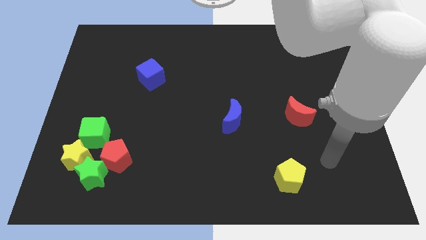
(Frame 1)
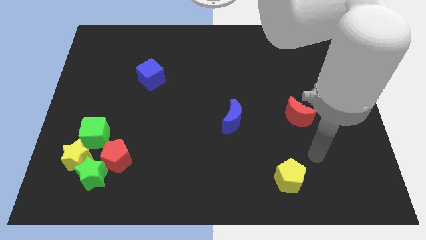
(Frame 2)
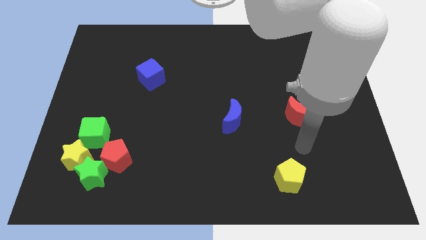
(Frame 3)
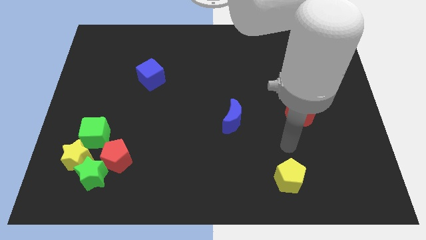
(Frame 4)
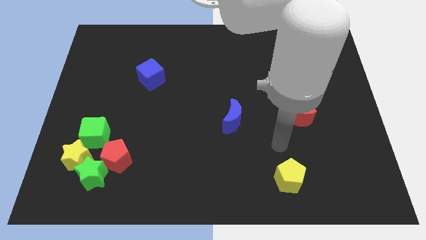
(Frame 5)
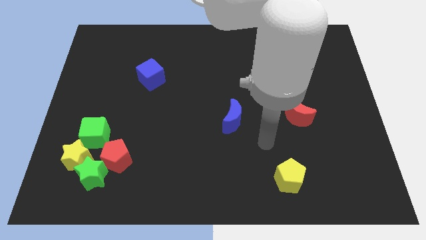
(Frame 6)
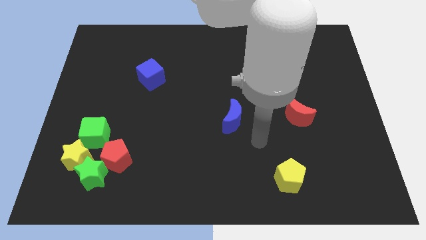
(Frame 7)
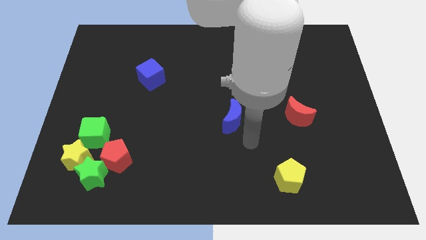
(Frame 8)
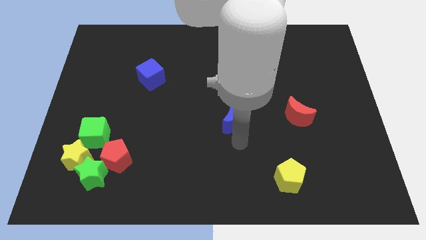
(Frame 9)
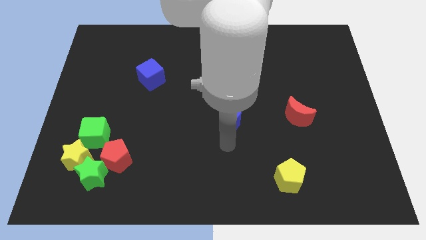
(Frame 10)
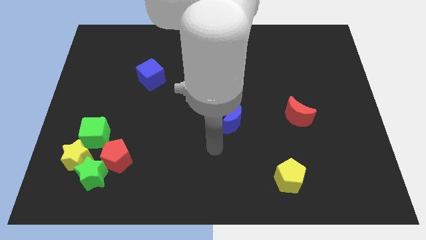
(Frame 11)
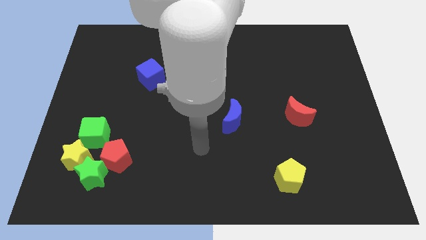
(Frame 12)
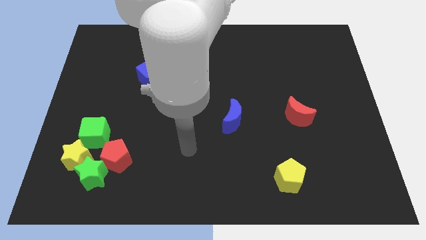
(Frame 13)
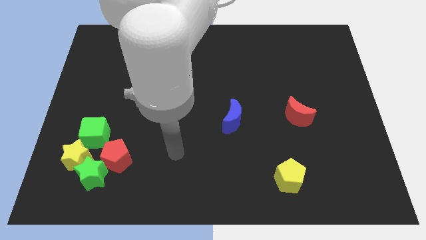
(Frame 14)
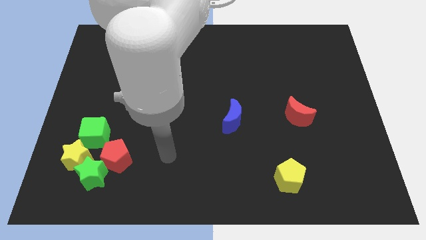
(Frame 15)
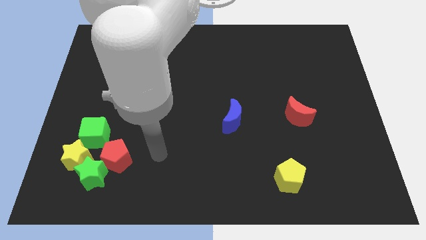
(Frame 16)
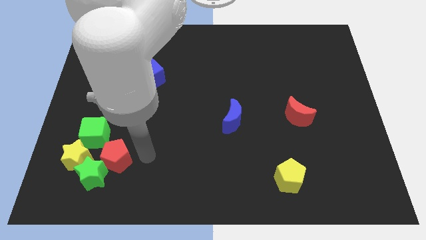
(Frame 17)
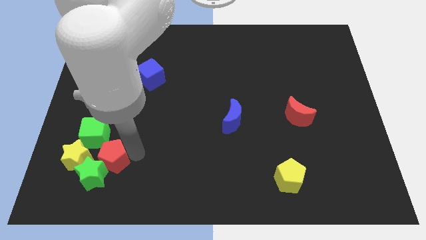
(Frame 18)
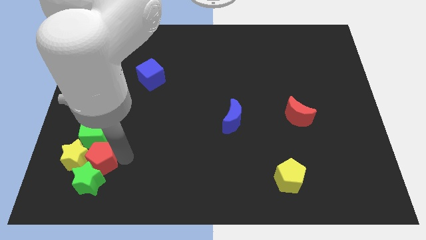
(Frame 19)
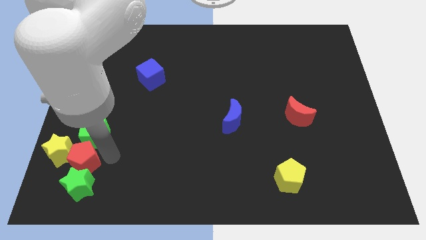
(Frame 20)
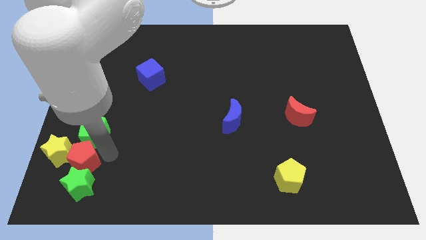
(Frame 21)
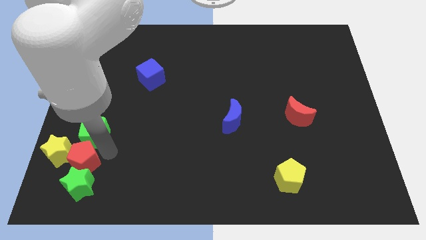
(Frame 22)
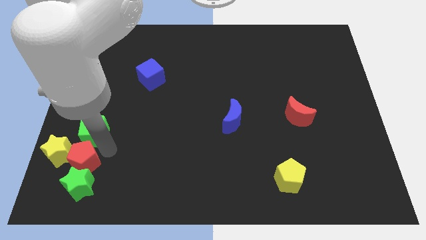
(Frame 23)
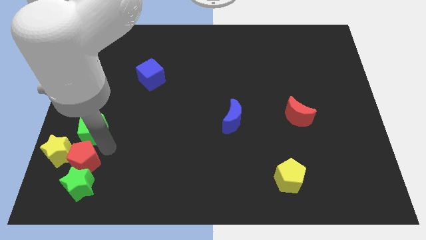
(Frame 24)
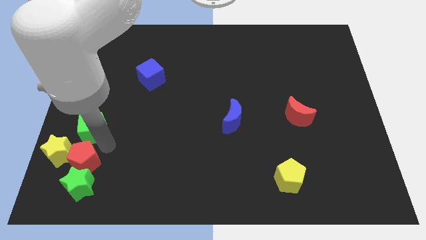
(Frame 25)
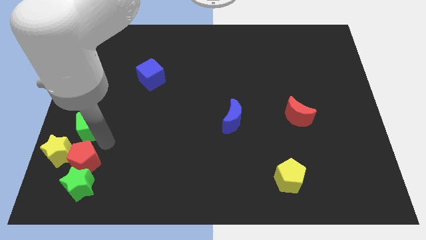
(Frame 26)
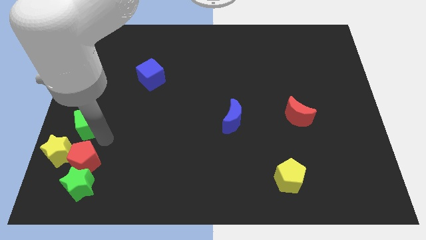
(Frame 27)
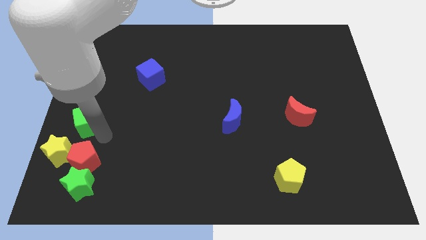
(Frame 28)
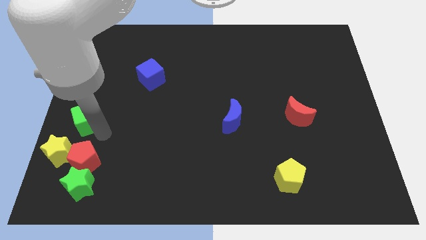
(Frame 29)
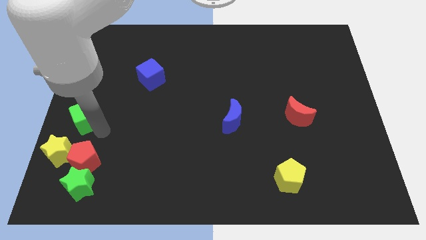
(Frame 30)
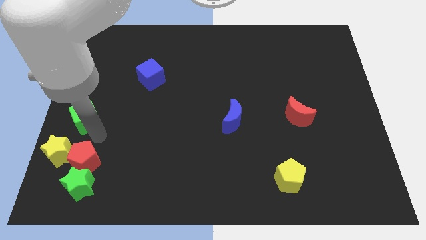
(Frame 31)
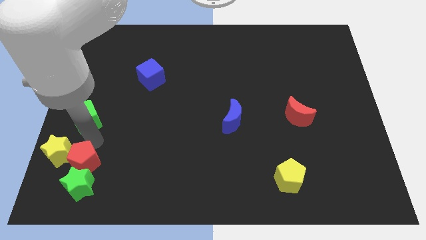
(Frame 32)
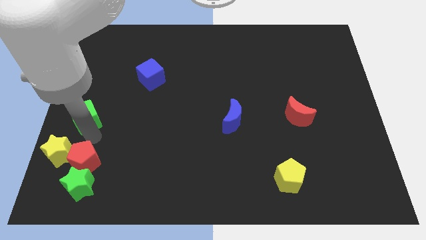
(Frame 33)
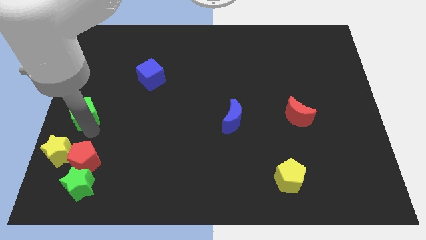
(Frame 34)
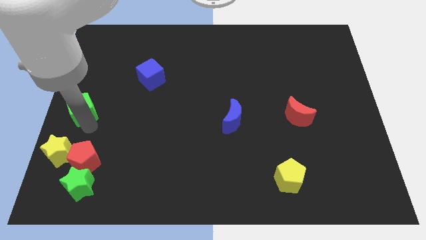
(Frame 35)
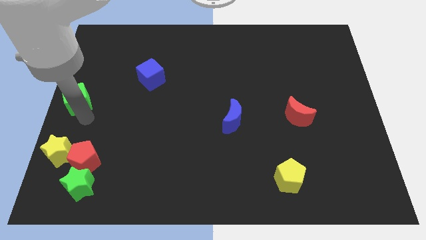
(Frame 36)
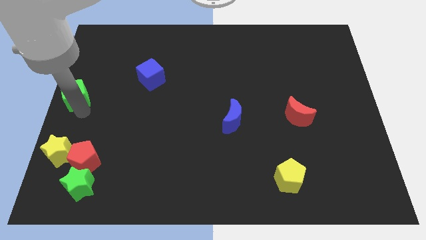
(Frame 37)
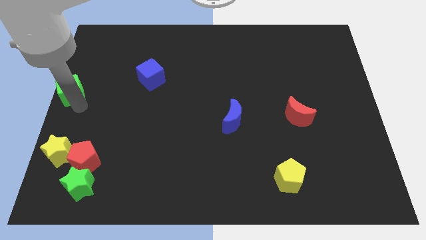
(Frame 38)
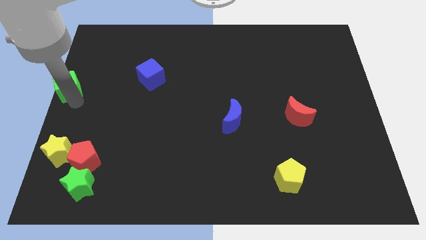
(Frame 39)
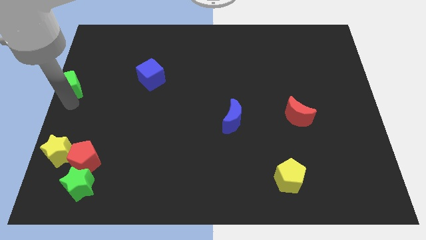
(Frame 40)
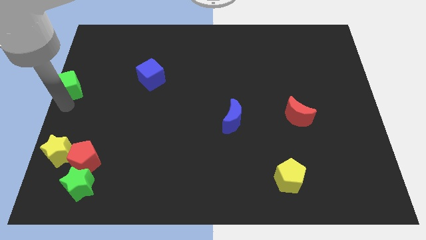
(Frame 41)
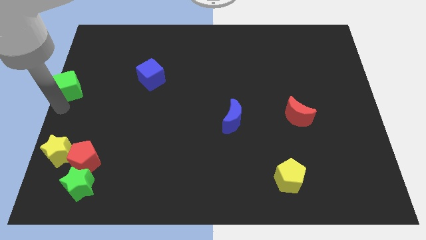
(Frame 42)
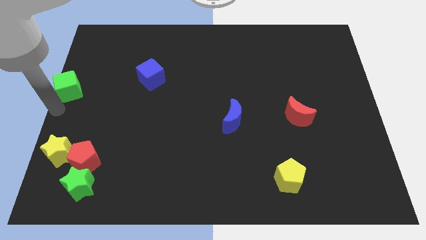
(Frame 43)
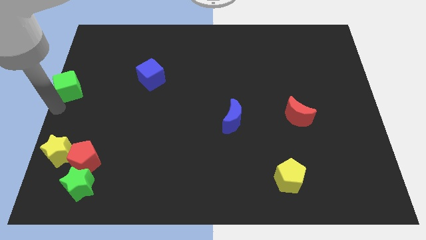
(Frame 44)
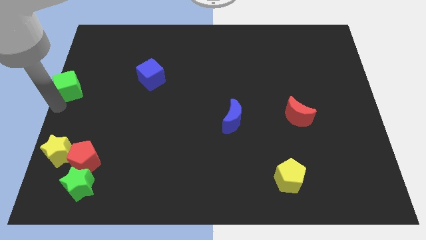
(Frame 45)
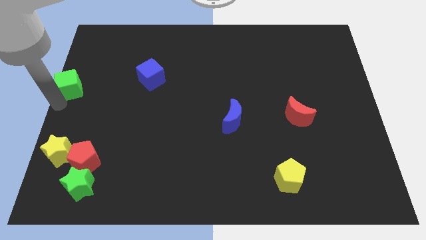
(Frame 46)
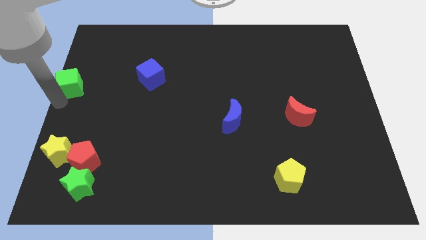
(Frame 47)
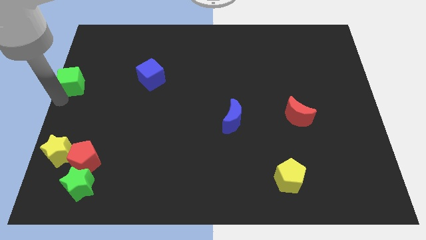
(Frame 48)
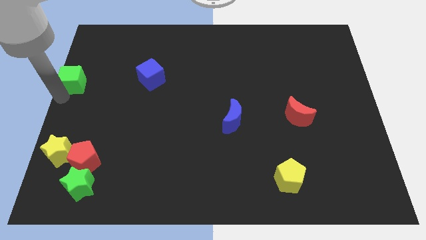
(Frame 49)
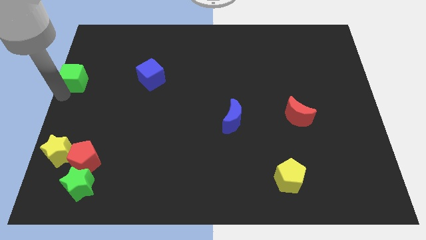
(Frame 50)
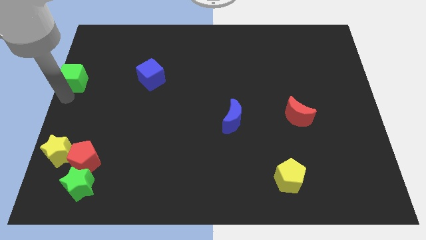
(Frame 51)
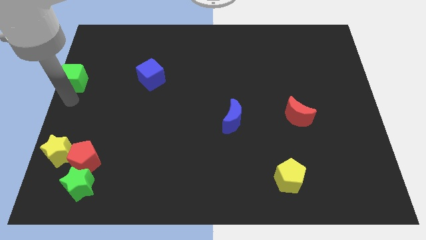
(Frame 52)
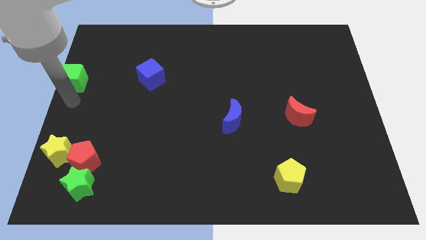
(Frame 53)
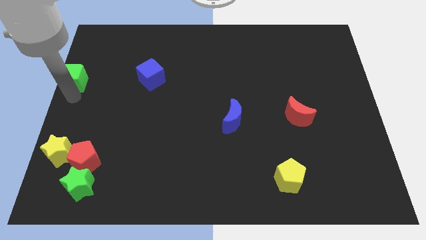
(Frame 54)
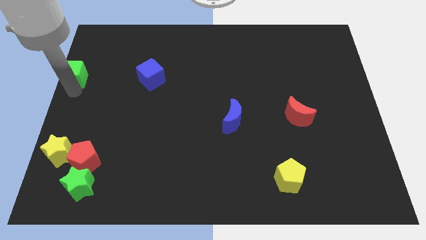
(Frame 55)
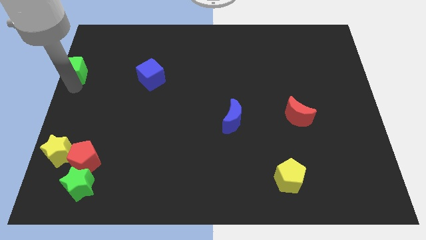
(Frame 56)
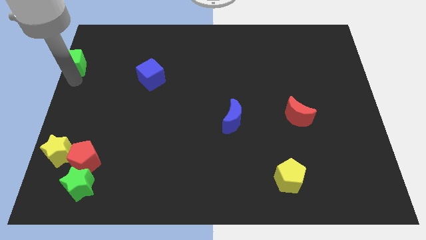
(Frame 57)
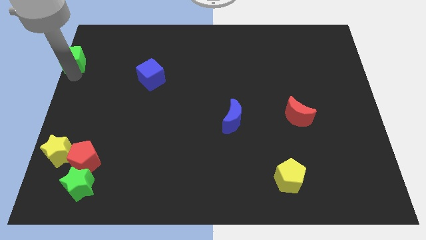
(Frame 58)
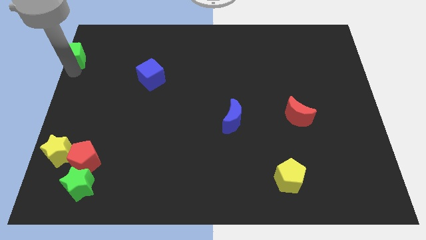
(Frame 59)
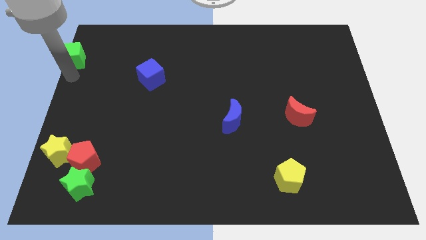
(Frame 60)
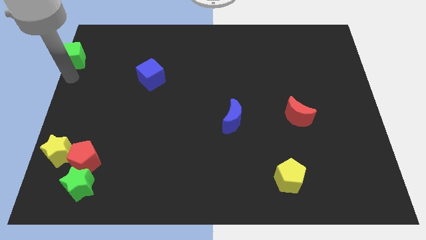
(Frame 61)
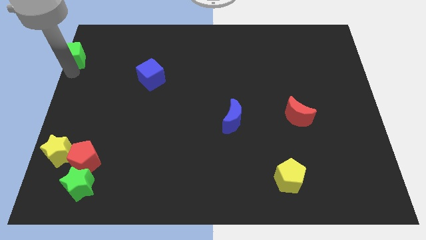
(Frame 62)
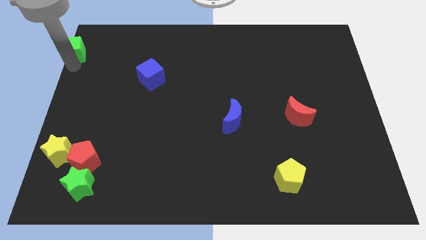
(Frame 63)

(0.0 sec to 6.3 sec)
move the green cube to the upper left corner

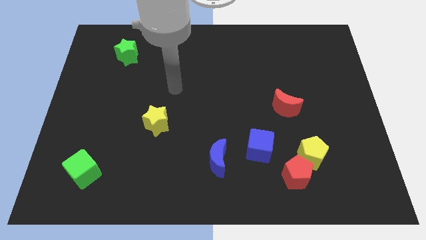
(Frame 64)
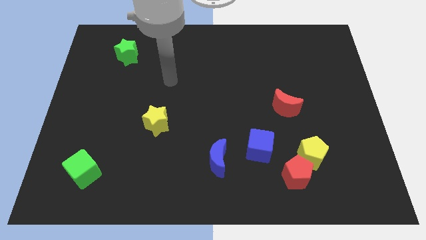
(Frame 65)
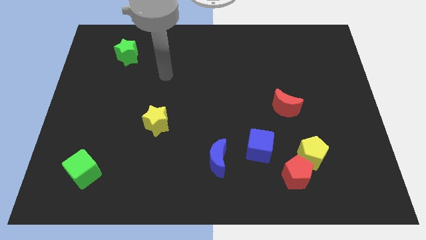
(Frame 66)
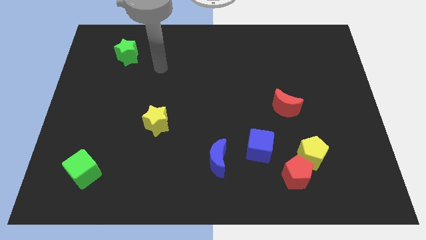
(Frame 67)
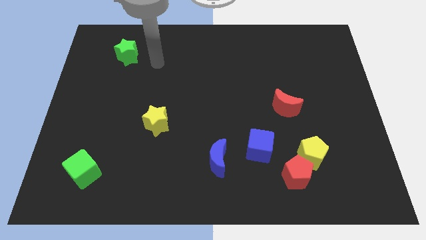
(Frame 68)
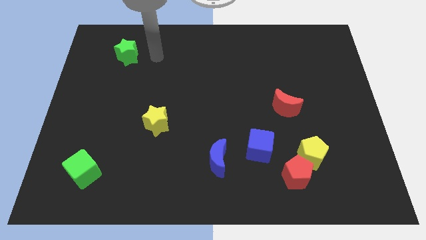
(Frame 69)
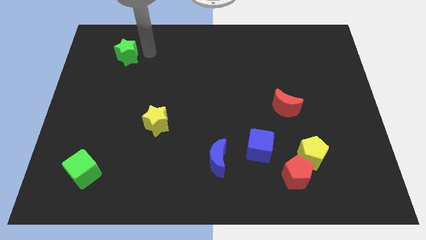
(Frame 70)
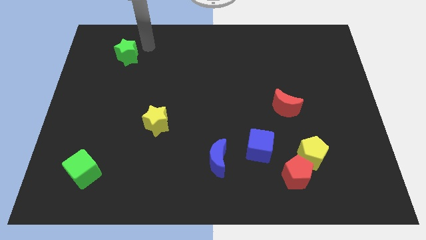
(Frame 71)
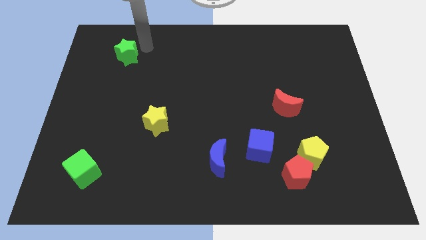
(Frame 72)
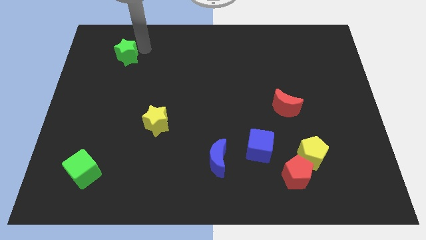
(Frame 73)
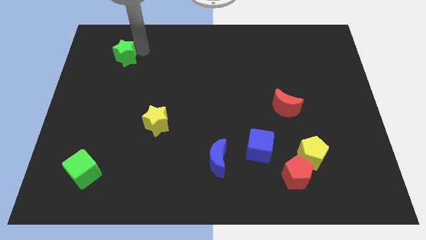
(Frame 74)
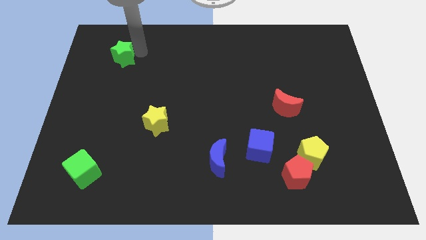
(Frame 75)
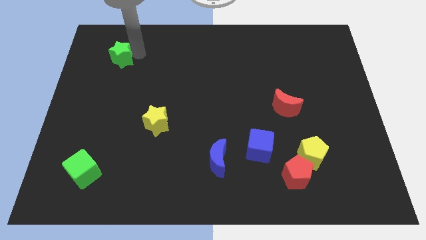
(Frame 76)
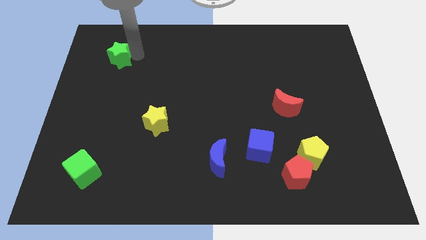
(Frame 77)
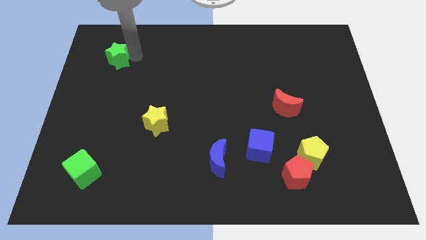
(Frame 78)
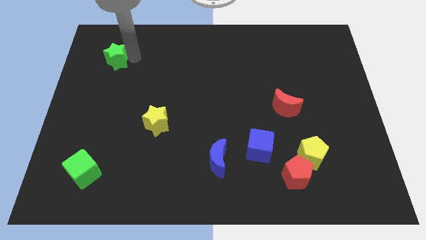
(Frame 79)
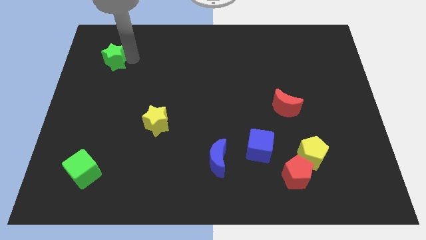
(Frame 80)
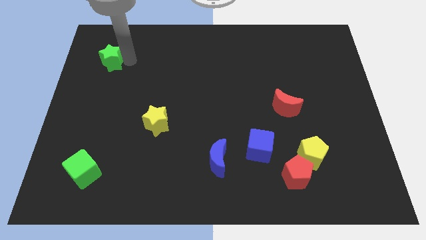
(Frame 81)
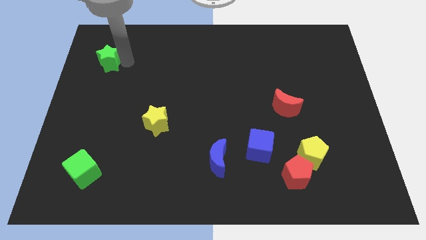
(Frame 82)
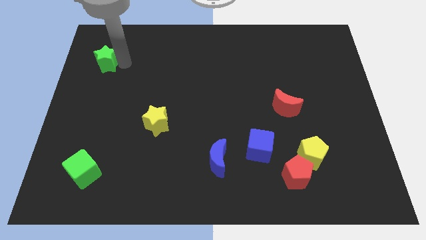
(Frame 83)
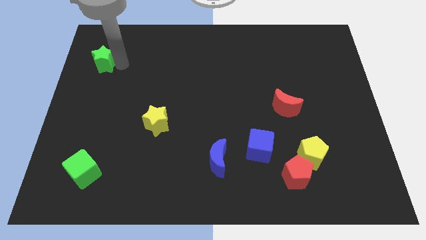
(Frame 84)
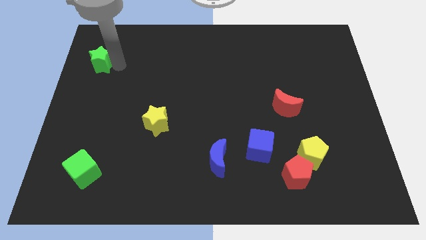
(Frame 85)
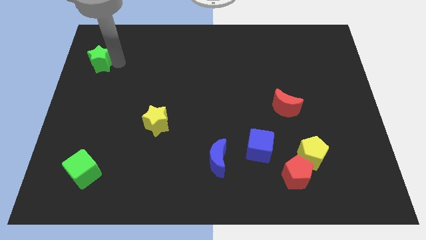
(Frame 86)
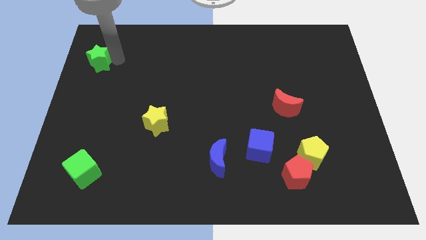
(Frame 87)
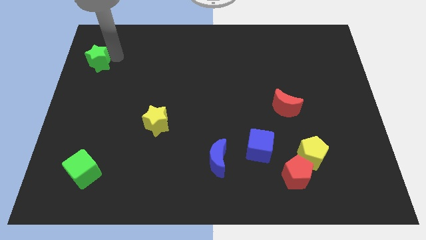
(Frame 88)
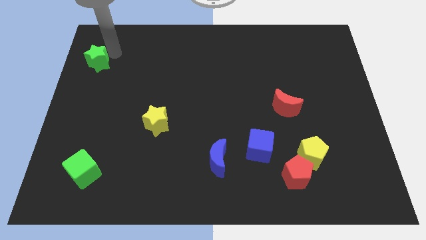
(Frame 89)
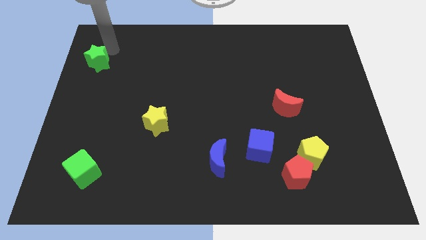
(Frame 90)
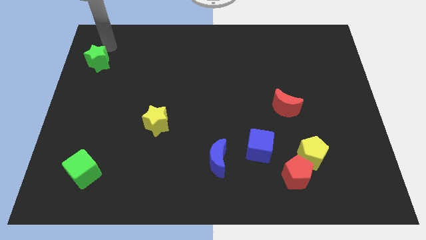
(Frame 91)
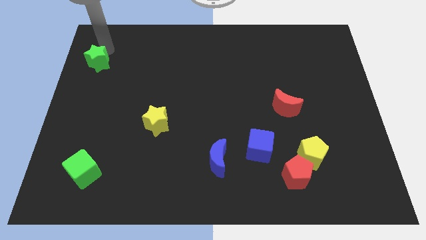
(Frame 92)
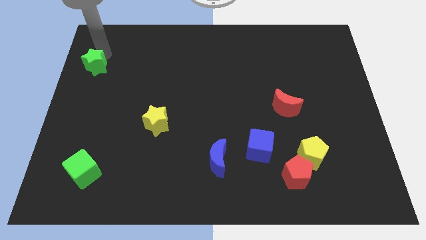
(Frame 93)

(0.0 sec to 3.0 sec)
move the green star to the left side
